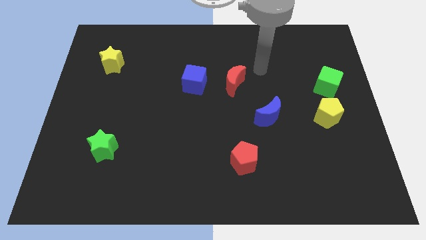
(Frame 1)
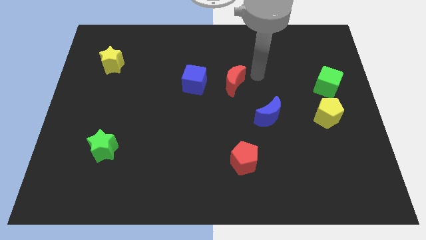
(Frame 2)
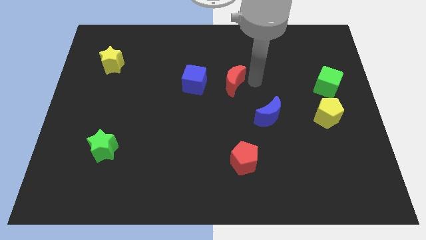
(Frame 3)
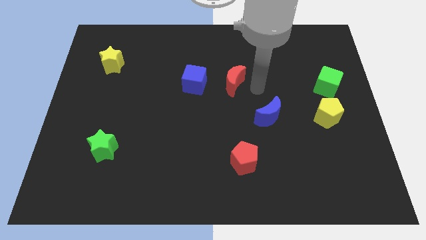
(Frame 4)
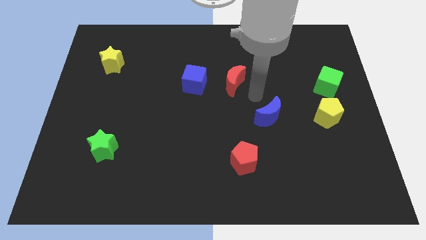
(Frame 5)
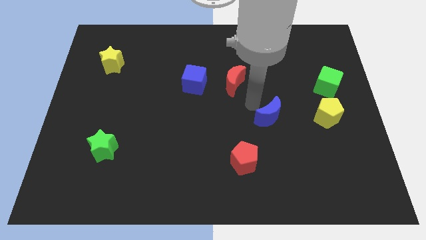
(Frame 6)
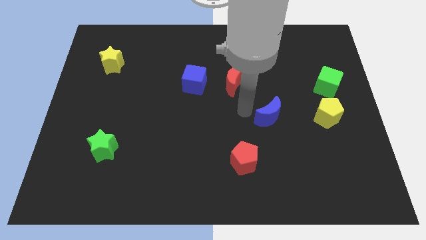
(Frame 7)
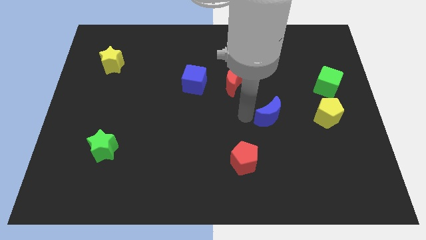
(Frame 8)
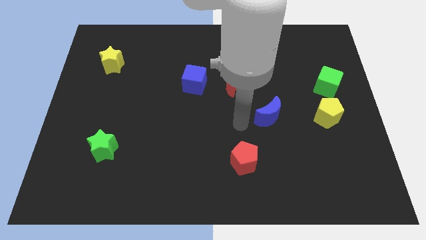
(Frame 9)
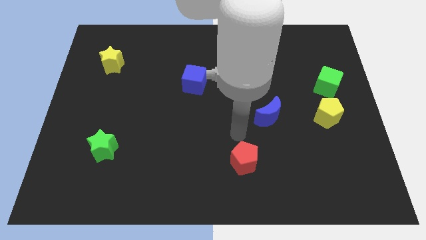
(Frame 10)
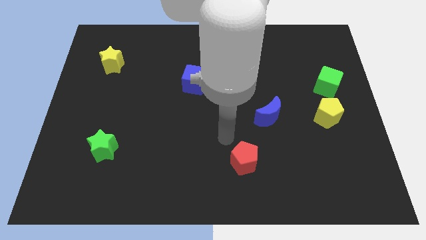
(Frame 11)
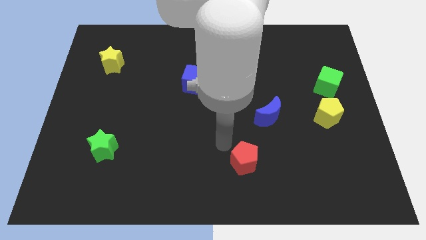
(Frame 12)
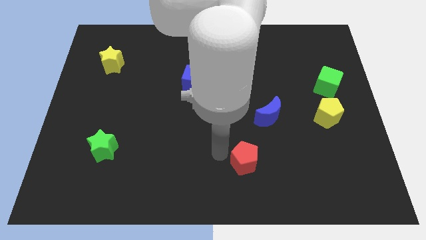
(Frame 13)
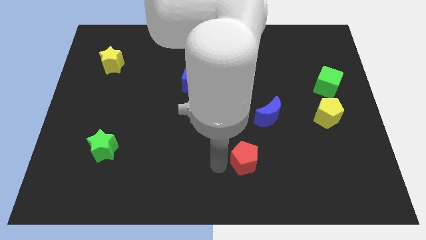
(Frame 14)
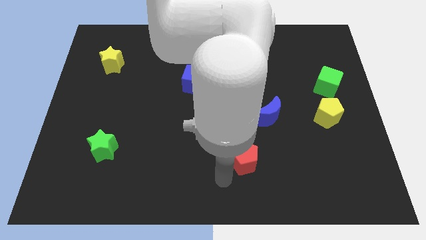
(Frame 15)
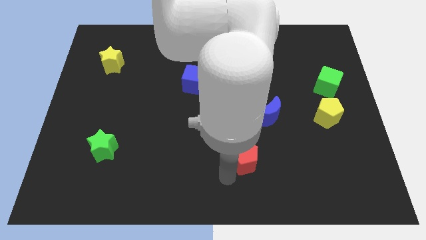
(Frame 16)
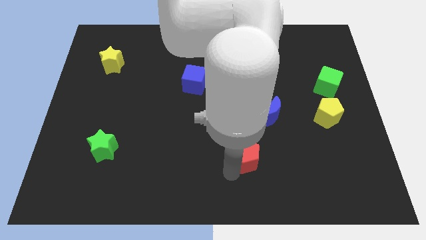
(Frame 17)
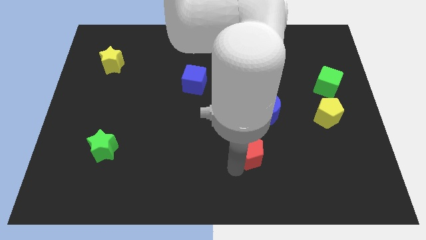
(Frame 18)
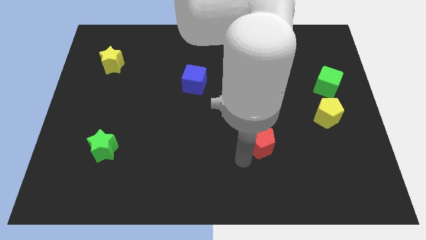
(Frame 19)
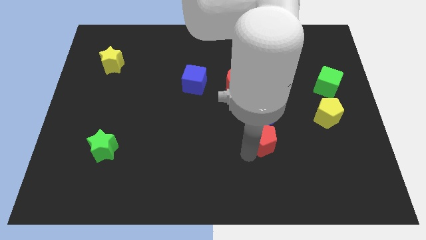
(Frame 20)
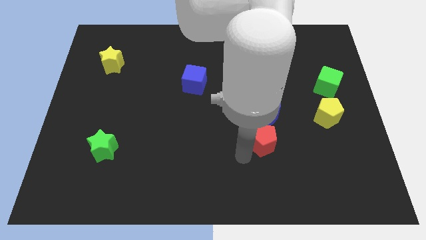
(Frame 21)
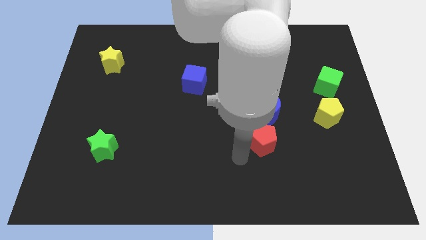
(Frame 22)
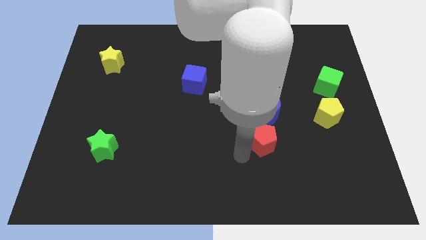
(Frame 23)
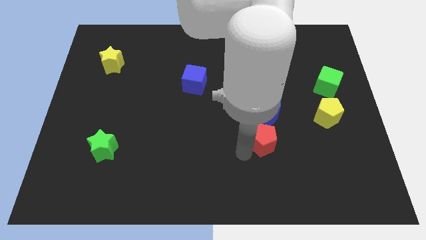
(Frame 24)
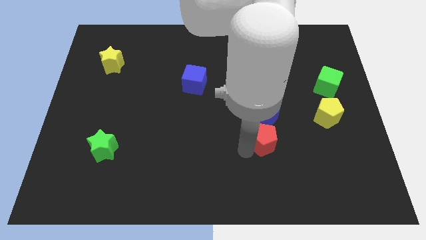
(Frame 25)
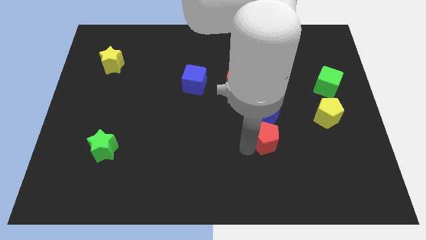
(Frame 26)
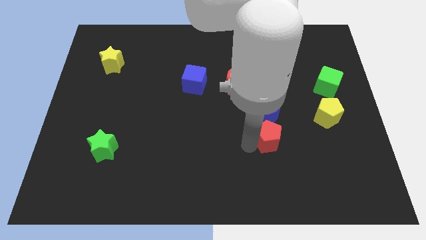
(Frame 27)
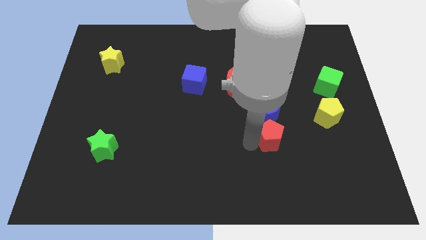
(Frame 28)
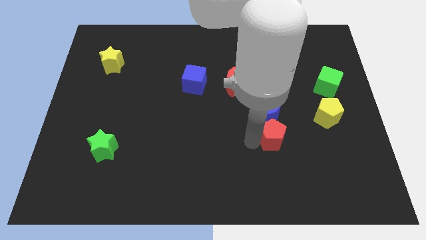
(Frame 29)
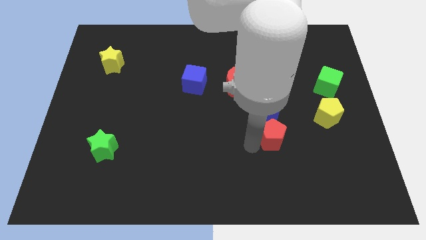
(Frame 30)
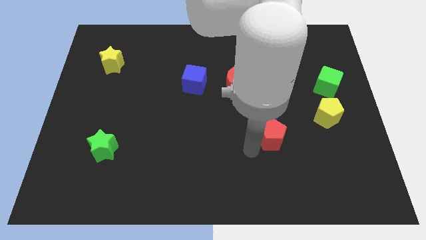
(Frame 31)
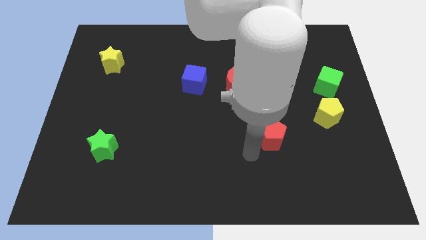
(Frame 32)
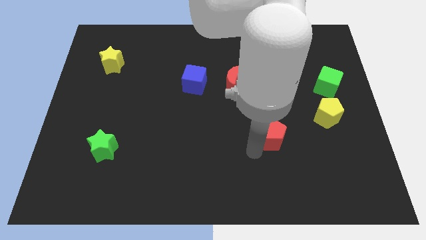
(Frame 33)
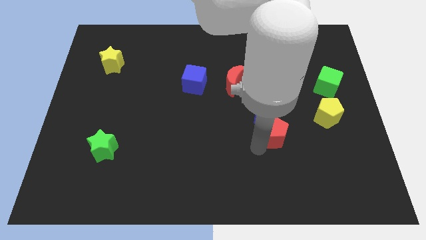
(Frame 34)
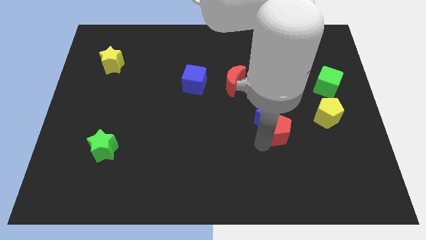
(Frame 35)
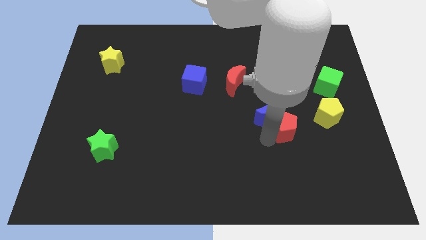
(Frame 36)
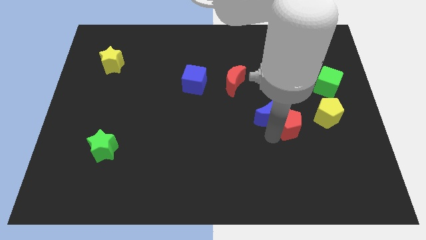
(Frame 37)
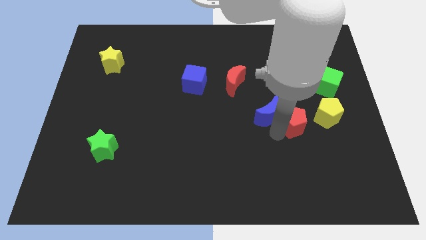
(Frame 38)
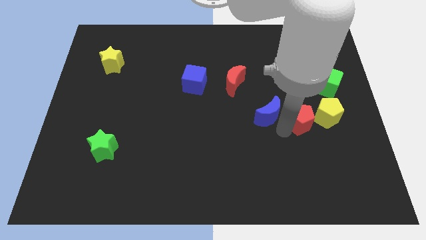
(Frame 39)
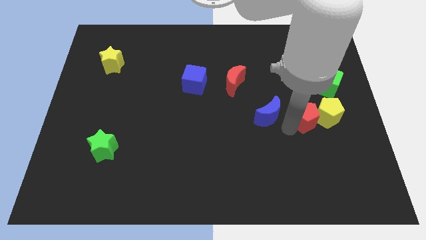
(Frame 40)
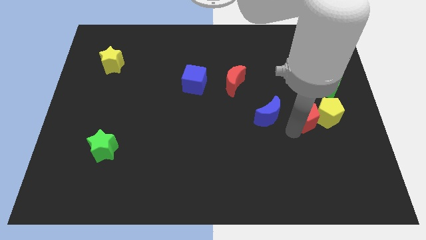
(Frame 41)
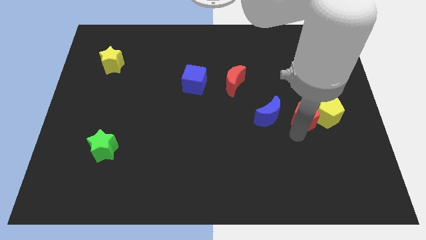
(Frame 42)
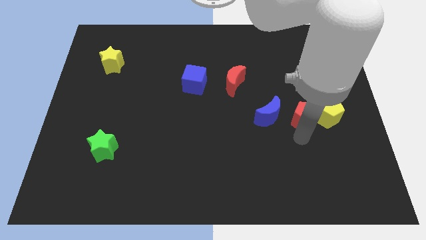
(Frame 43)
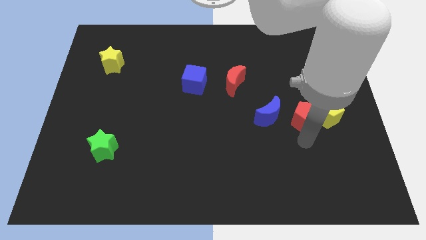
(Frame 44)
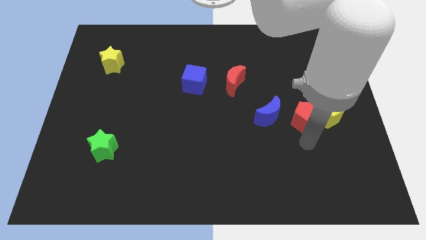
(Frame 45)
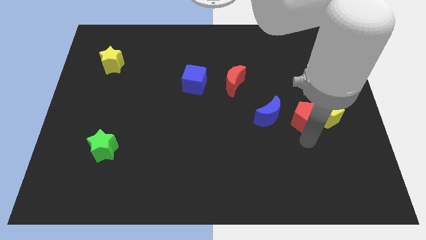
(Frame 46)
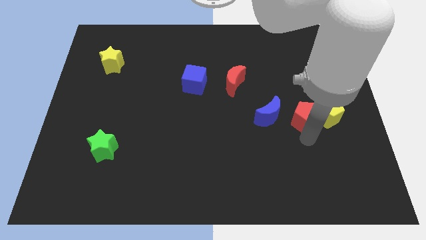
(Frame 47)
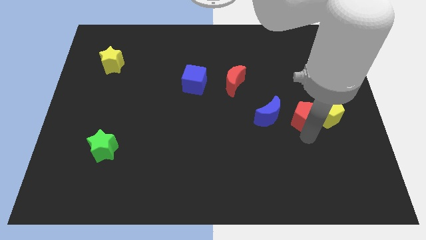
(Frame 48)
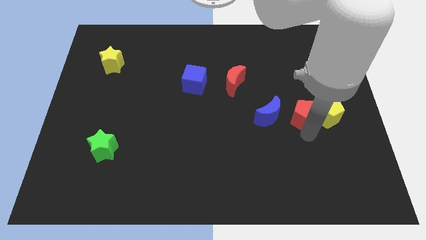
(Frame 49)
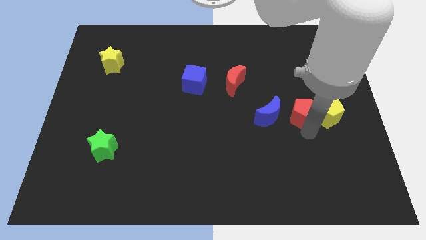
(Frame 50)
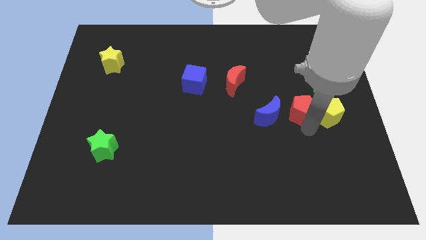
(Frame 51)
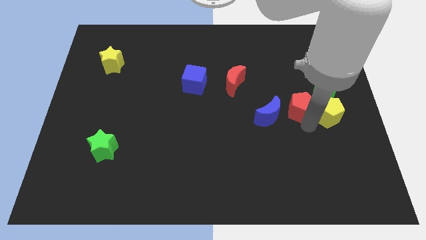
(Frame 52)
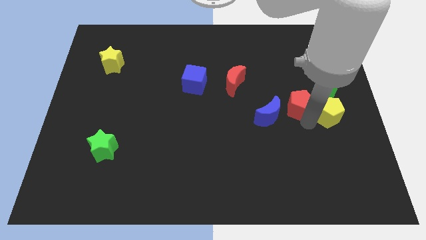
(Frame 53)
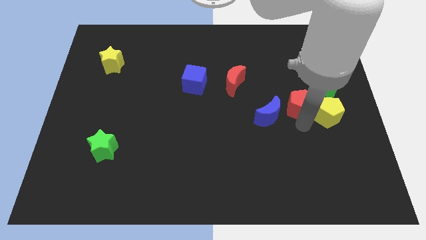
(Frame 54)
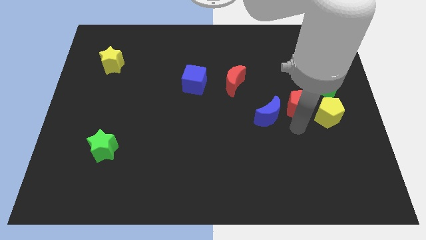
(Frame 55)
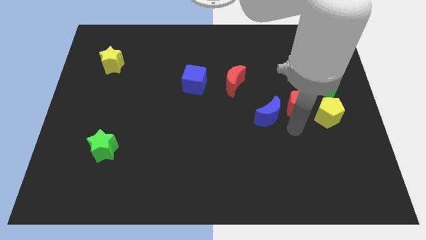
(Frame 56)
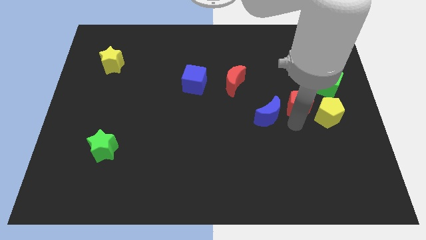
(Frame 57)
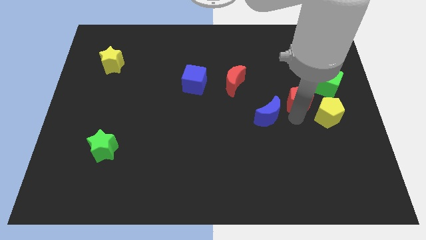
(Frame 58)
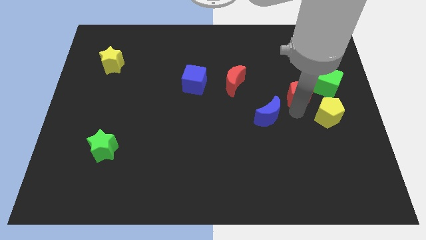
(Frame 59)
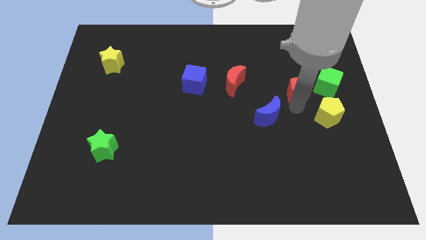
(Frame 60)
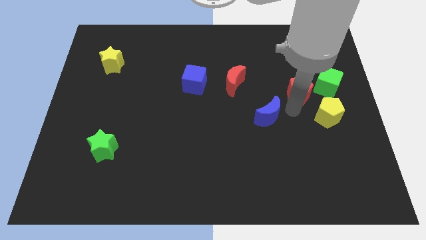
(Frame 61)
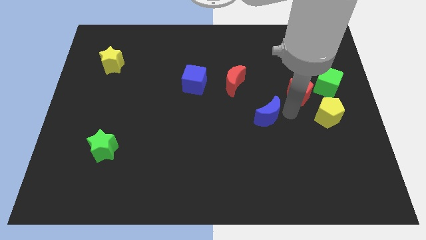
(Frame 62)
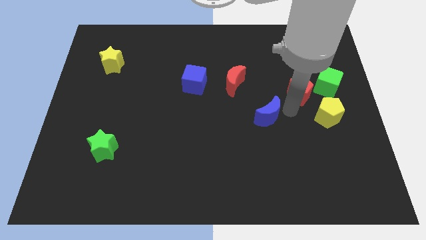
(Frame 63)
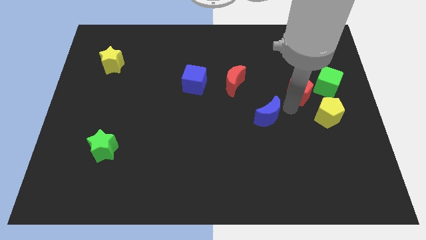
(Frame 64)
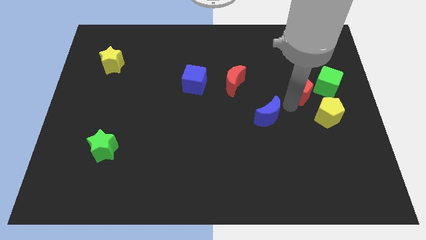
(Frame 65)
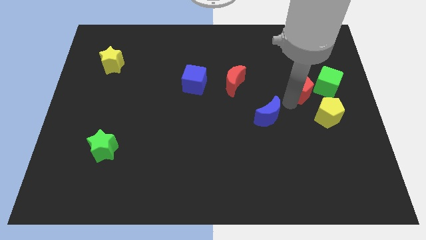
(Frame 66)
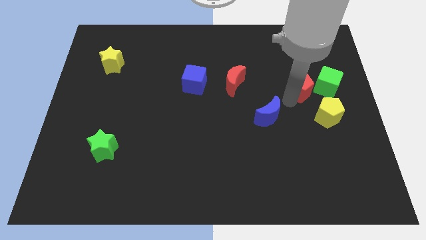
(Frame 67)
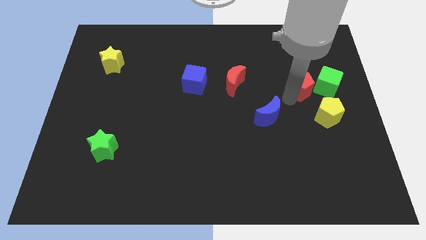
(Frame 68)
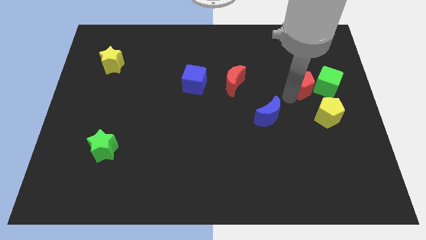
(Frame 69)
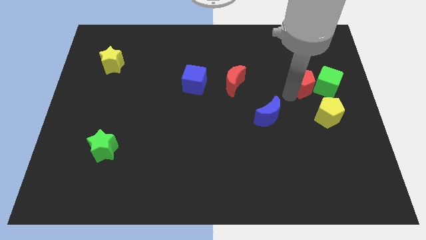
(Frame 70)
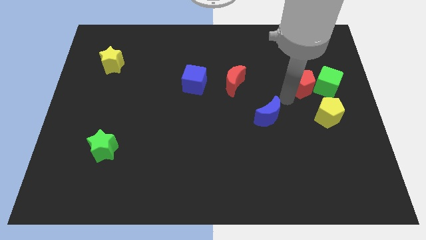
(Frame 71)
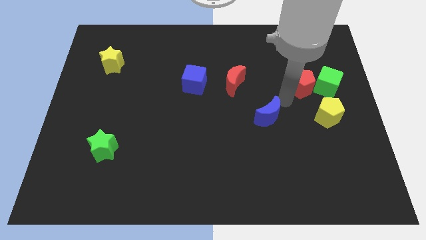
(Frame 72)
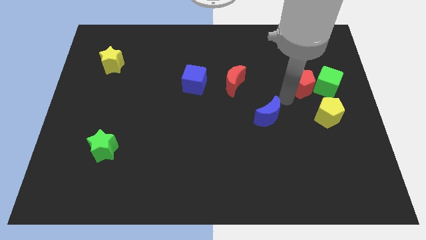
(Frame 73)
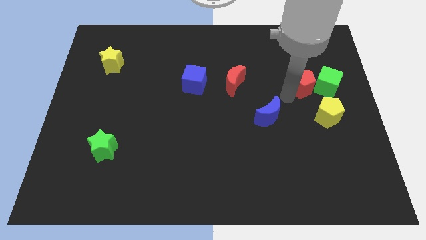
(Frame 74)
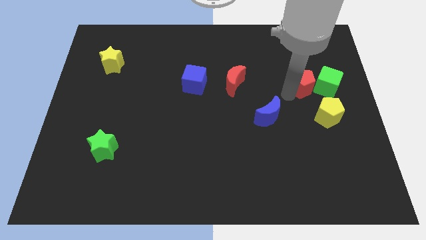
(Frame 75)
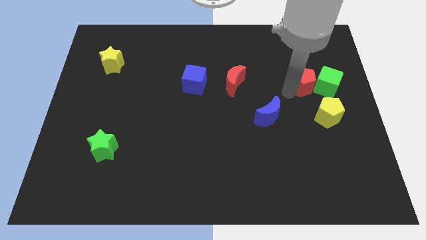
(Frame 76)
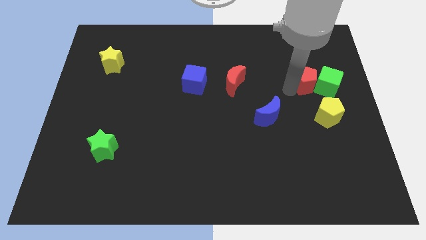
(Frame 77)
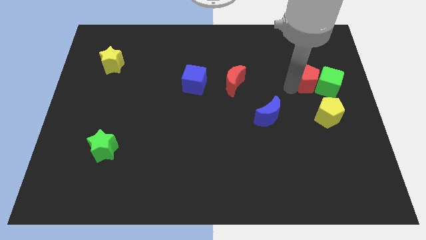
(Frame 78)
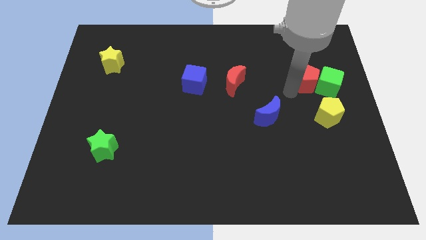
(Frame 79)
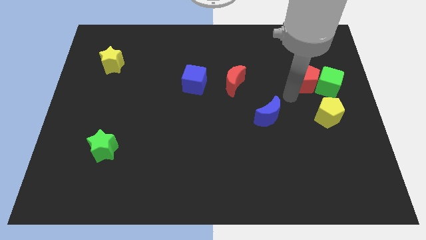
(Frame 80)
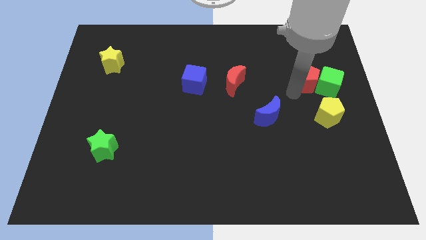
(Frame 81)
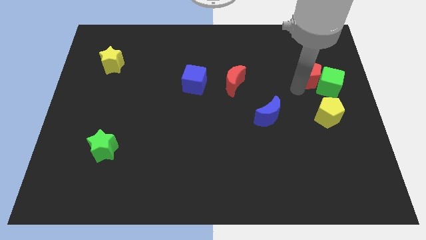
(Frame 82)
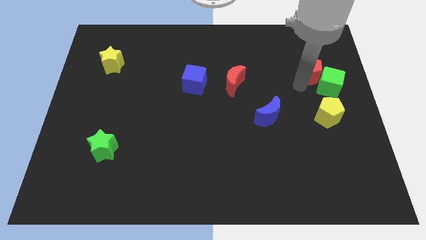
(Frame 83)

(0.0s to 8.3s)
push the red pentagon to the top of the green cube
